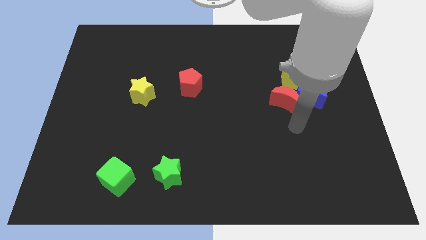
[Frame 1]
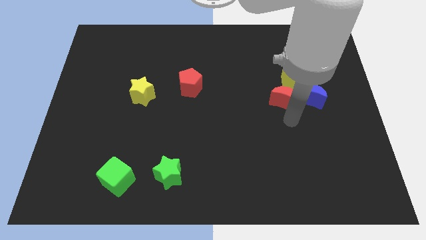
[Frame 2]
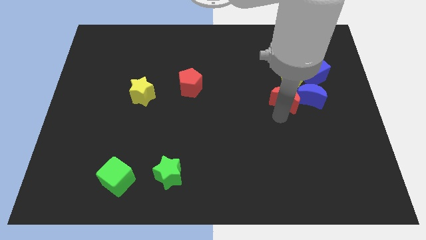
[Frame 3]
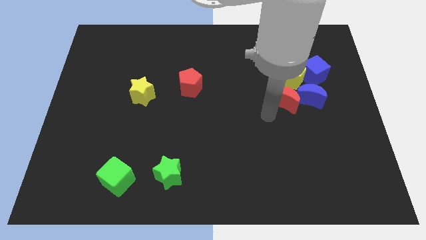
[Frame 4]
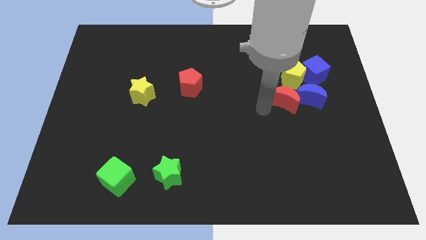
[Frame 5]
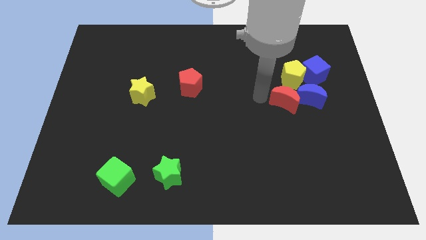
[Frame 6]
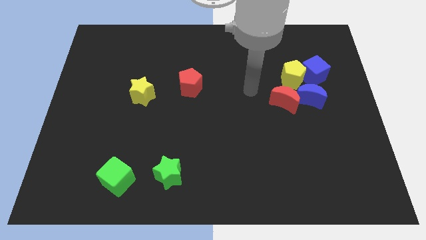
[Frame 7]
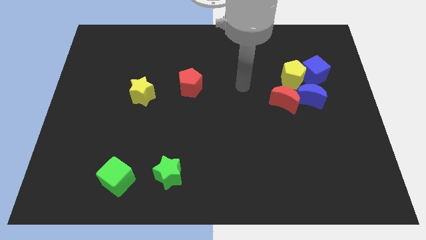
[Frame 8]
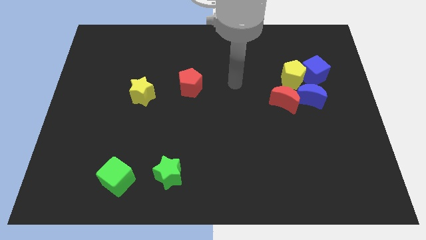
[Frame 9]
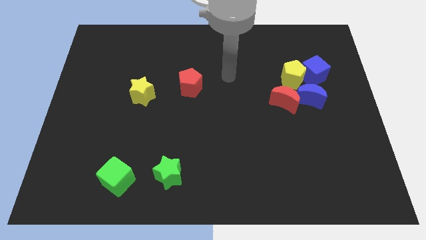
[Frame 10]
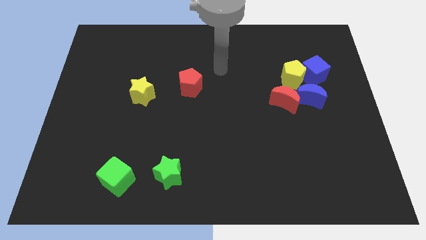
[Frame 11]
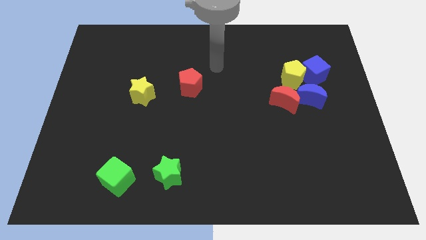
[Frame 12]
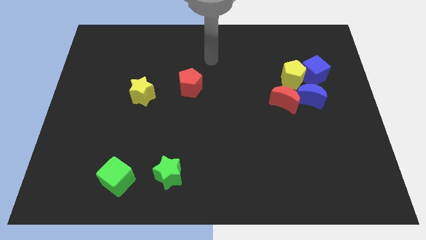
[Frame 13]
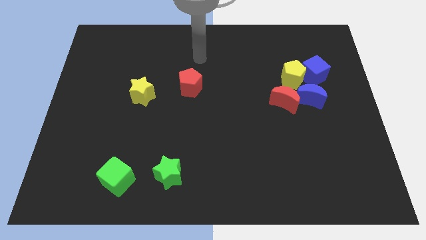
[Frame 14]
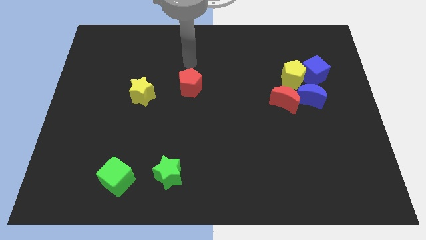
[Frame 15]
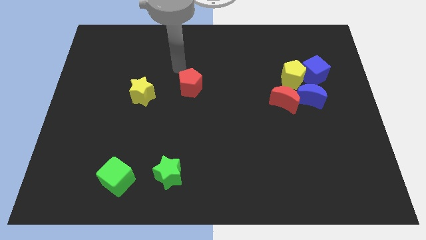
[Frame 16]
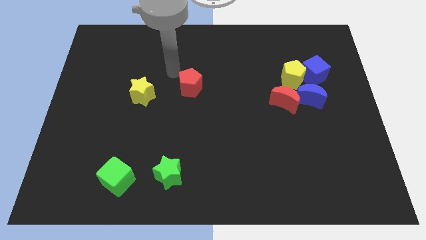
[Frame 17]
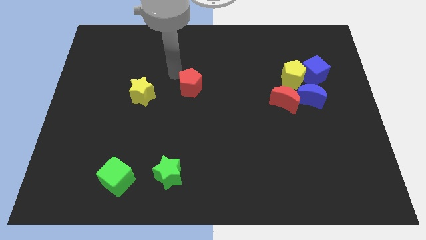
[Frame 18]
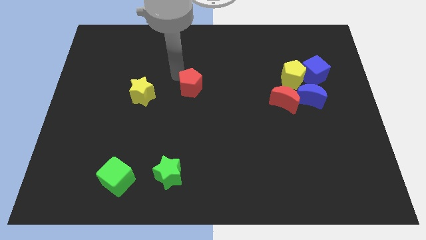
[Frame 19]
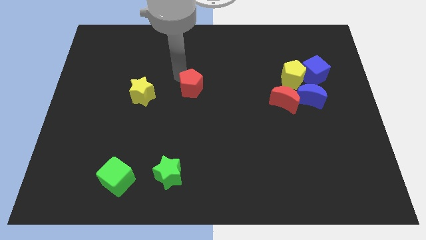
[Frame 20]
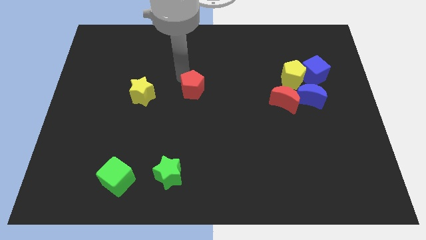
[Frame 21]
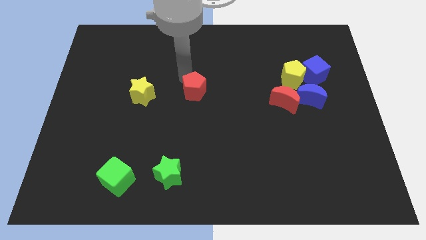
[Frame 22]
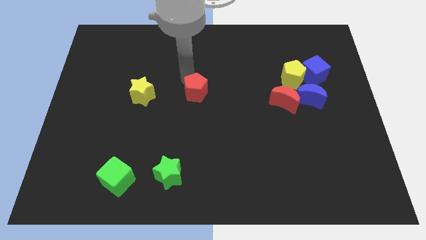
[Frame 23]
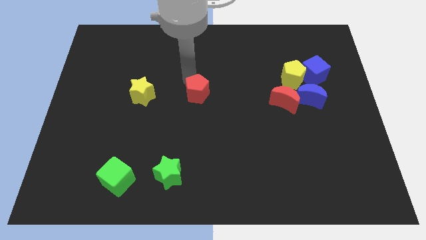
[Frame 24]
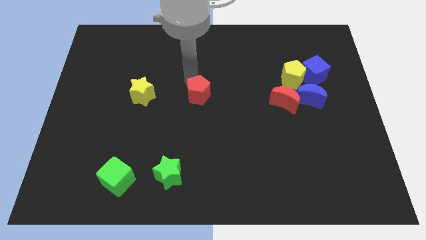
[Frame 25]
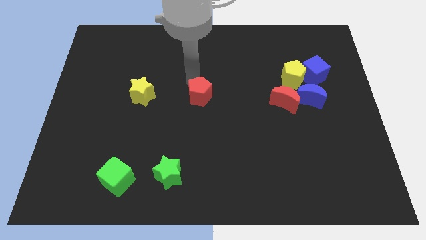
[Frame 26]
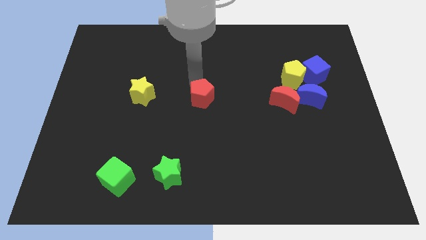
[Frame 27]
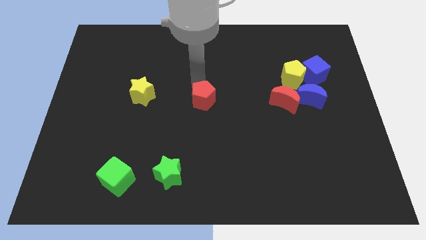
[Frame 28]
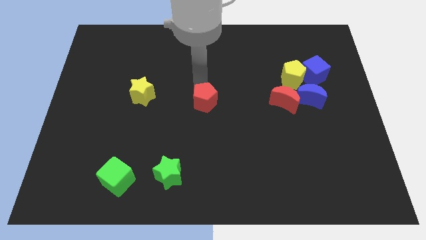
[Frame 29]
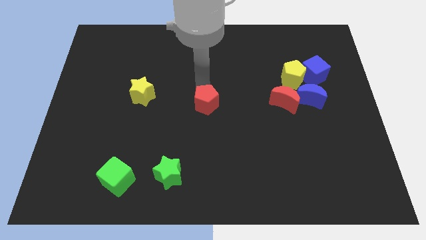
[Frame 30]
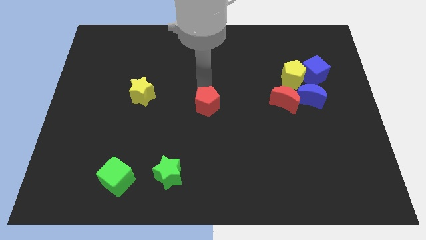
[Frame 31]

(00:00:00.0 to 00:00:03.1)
move the red pentagon a little downwards and then right

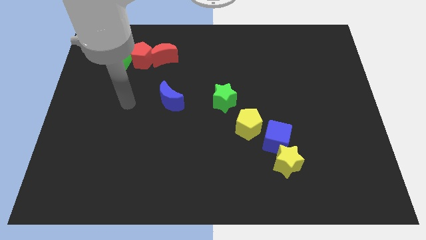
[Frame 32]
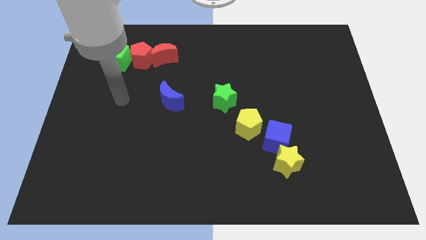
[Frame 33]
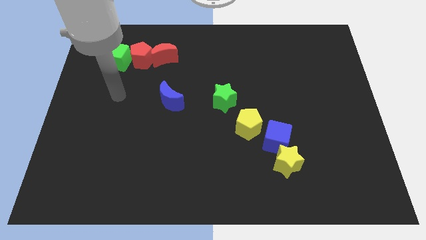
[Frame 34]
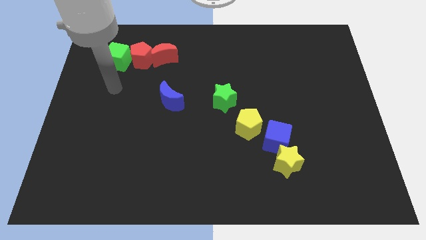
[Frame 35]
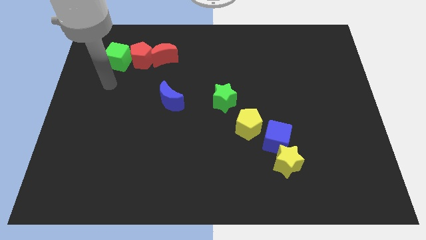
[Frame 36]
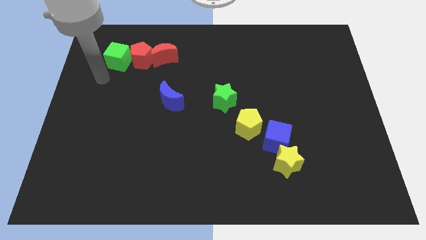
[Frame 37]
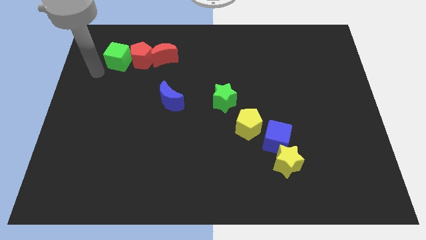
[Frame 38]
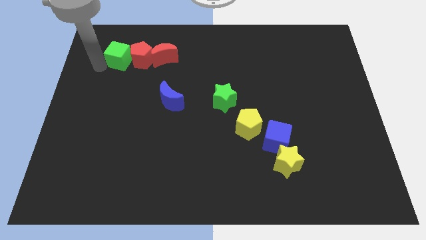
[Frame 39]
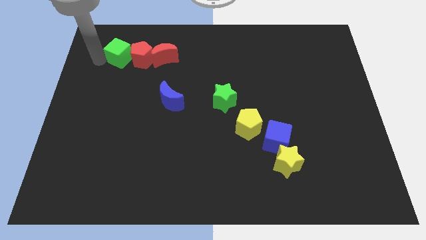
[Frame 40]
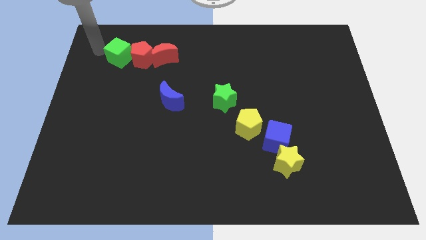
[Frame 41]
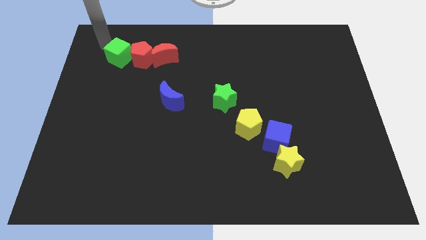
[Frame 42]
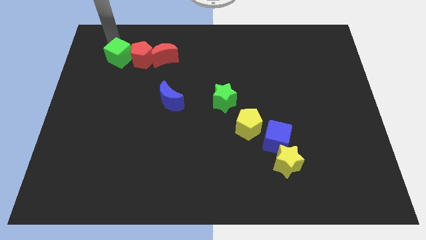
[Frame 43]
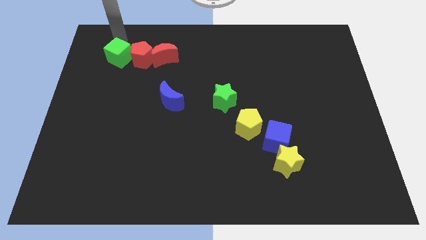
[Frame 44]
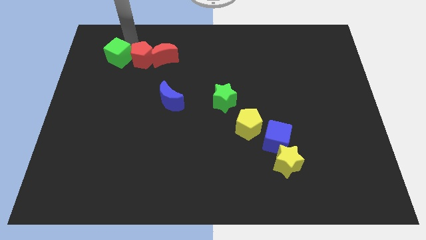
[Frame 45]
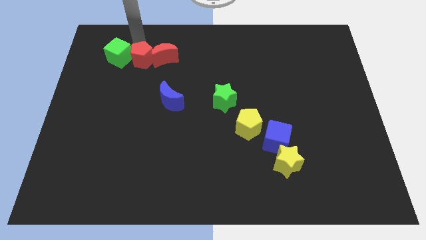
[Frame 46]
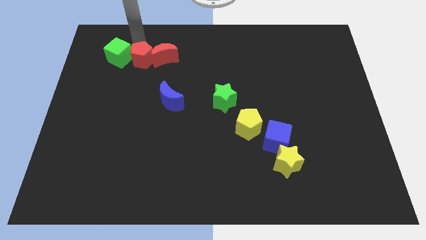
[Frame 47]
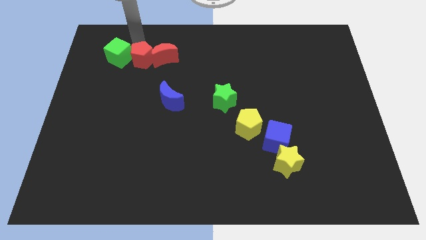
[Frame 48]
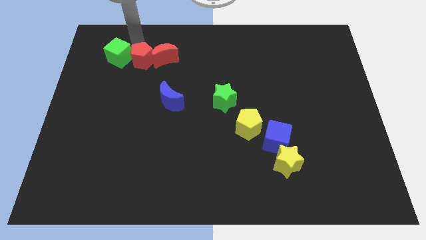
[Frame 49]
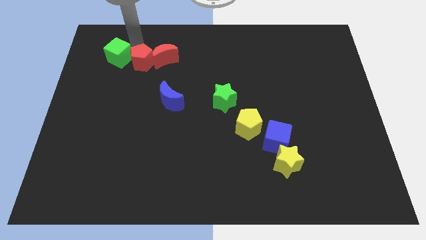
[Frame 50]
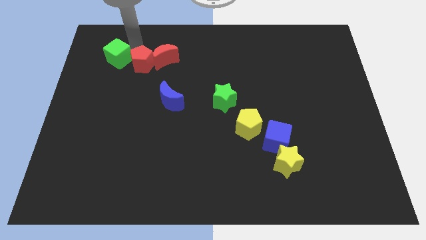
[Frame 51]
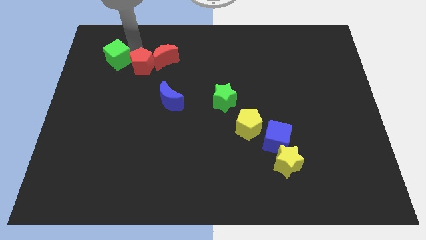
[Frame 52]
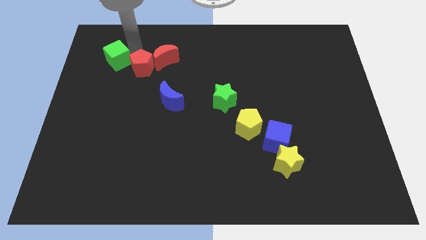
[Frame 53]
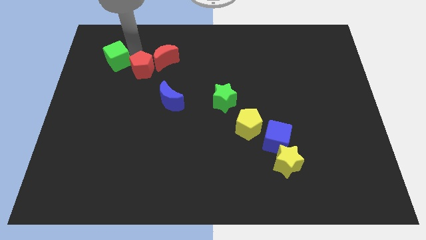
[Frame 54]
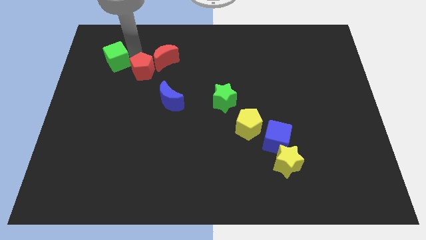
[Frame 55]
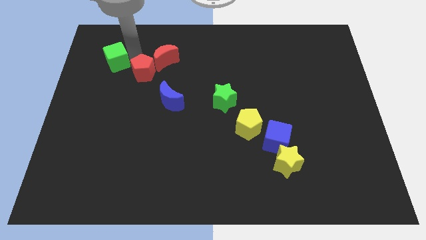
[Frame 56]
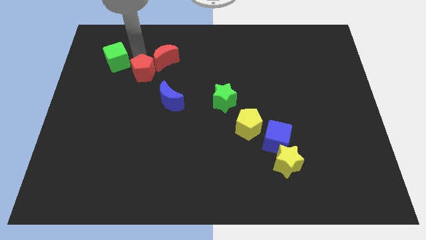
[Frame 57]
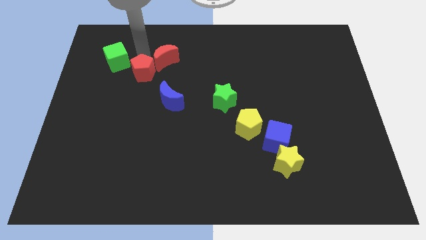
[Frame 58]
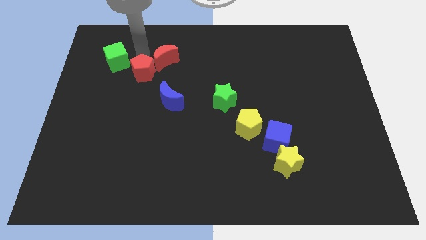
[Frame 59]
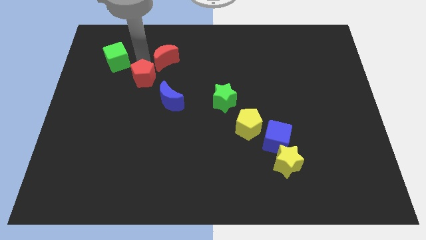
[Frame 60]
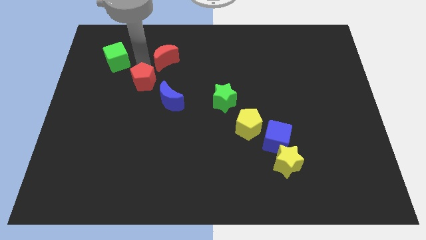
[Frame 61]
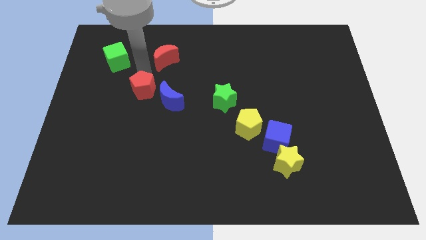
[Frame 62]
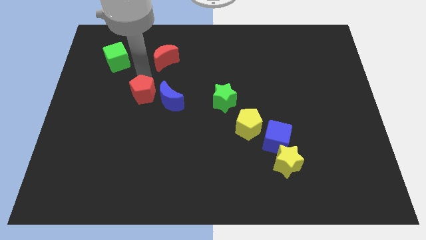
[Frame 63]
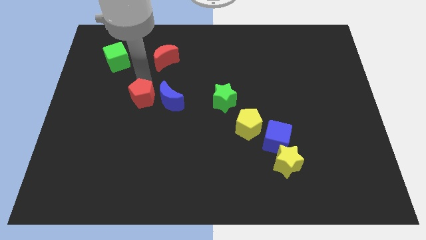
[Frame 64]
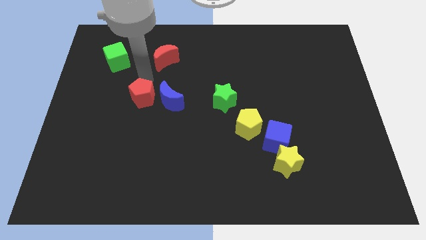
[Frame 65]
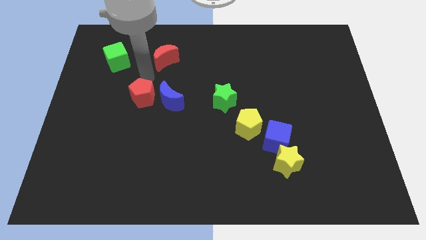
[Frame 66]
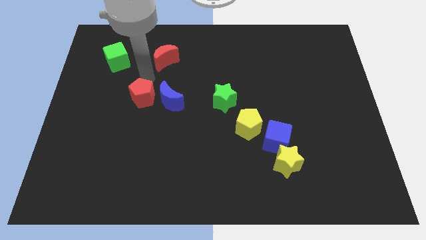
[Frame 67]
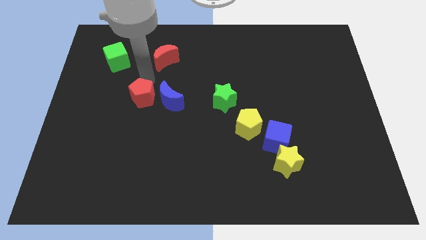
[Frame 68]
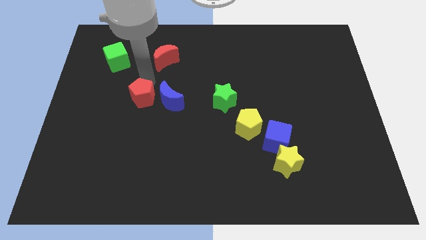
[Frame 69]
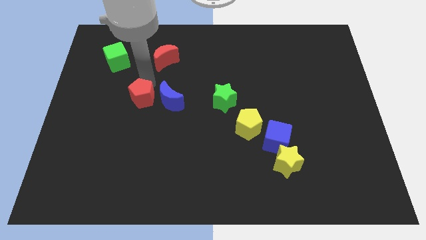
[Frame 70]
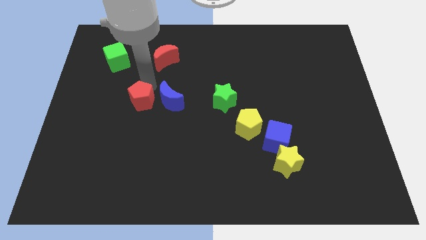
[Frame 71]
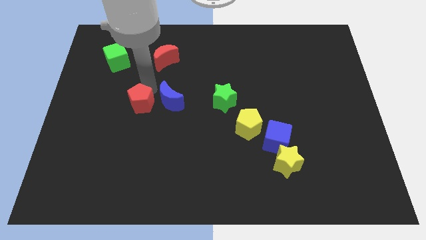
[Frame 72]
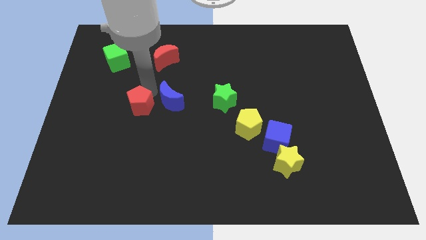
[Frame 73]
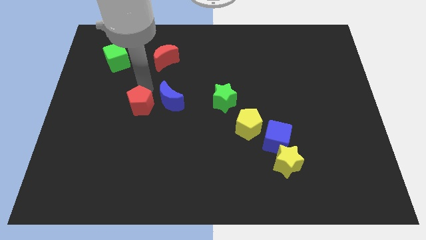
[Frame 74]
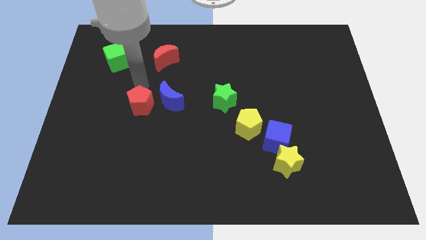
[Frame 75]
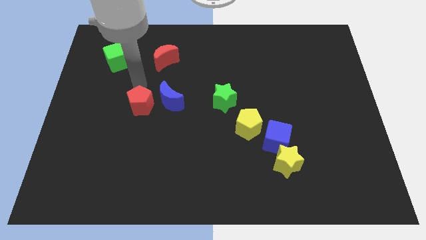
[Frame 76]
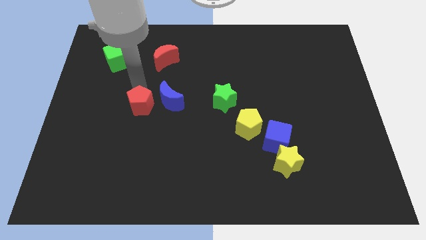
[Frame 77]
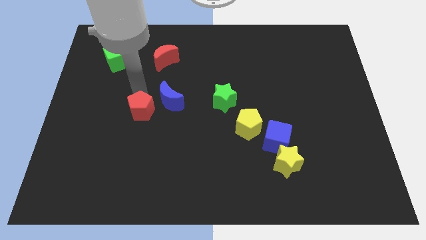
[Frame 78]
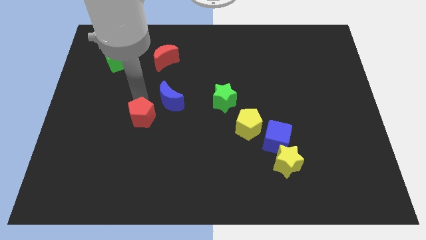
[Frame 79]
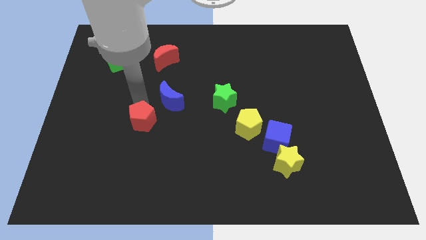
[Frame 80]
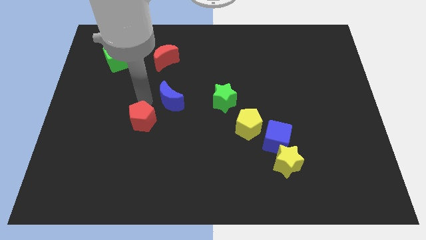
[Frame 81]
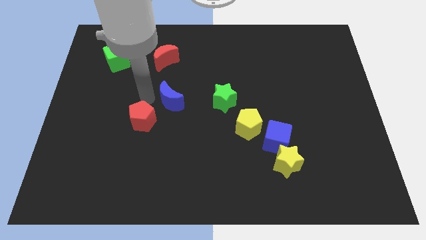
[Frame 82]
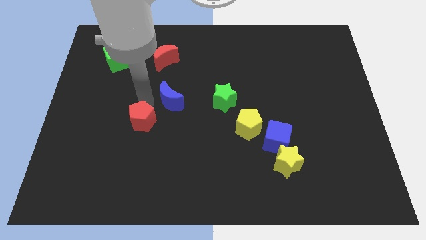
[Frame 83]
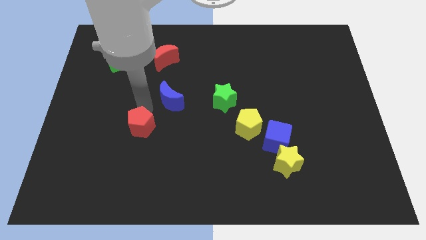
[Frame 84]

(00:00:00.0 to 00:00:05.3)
move the red pentagon downwards

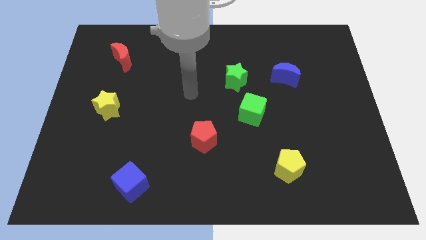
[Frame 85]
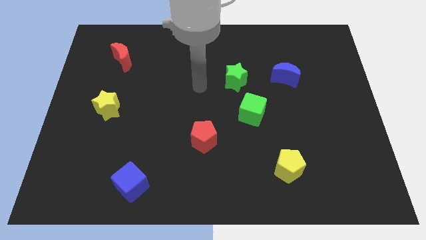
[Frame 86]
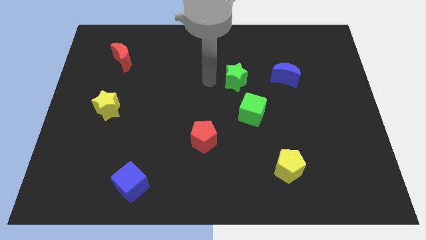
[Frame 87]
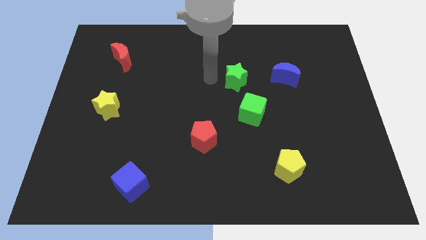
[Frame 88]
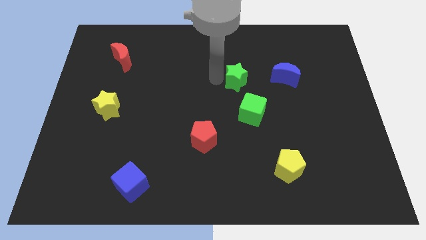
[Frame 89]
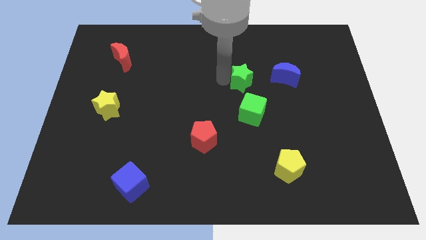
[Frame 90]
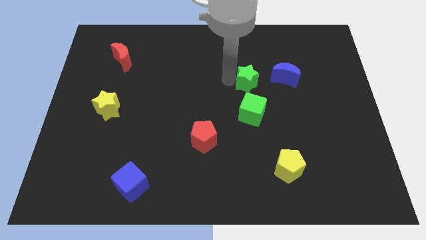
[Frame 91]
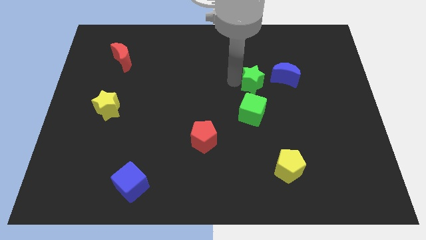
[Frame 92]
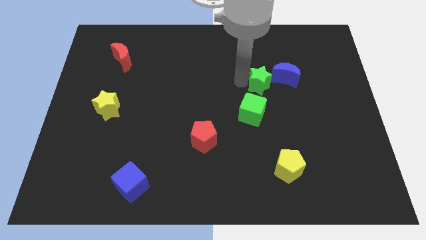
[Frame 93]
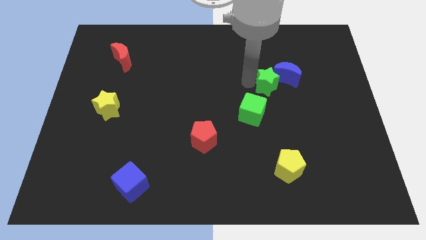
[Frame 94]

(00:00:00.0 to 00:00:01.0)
slide the green star to the right somewhat
